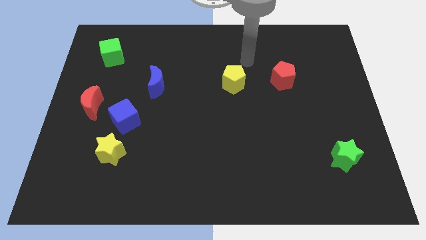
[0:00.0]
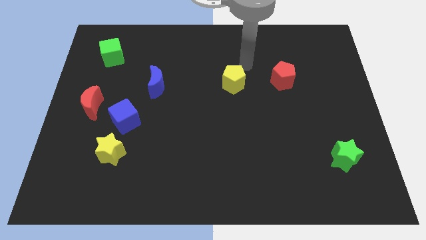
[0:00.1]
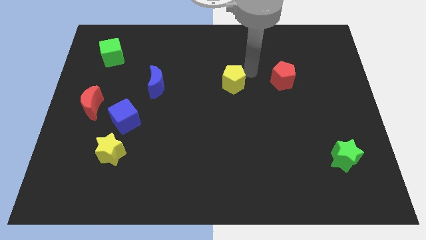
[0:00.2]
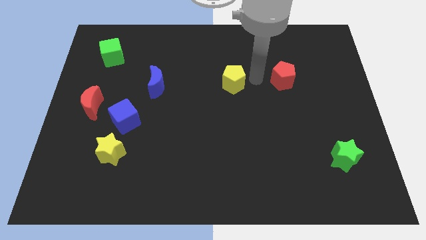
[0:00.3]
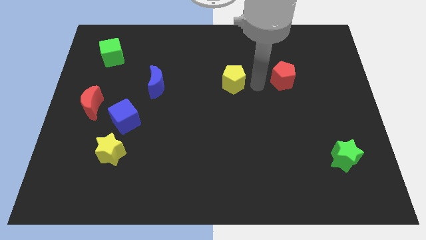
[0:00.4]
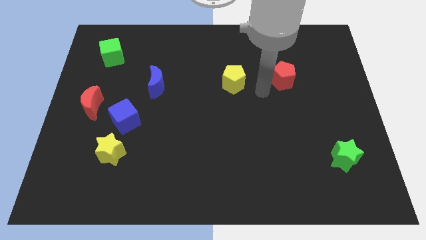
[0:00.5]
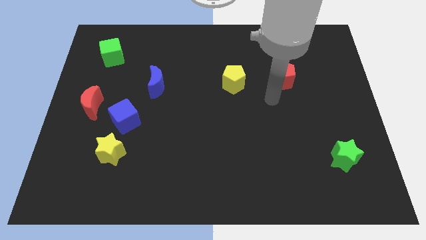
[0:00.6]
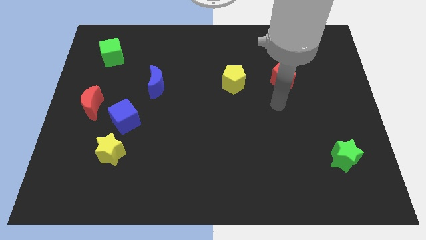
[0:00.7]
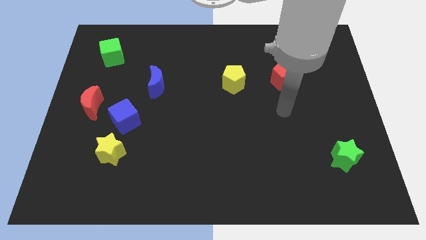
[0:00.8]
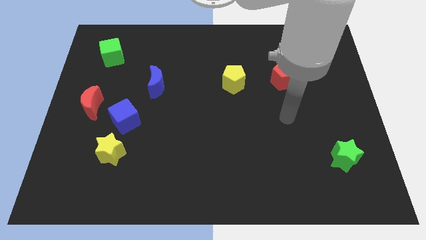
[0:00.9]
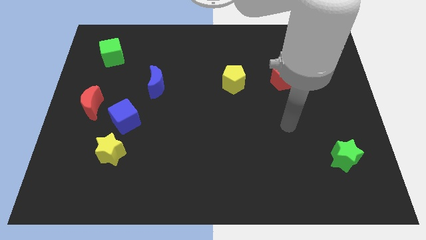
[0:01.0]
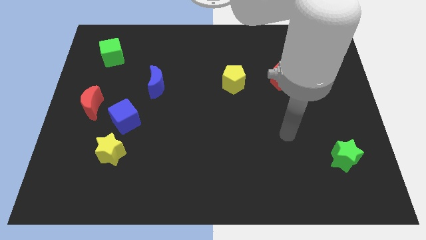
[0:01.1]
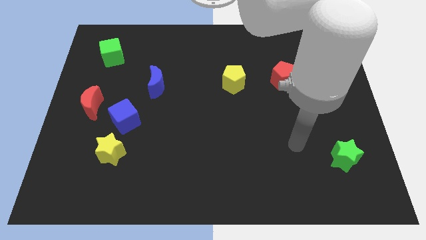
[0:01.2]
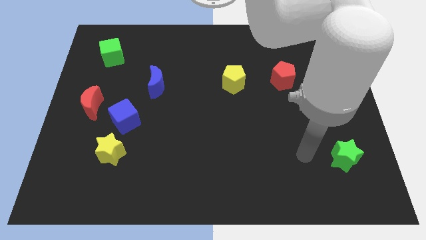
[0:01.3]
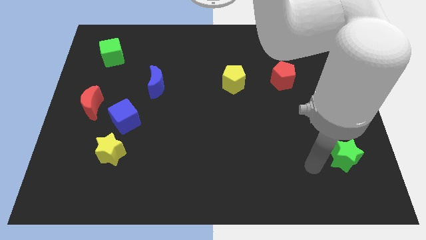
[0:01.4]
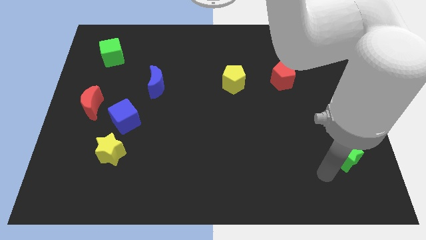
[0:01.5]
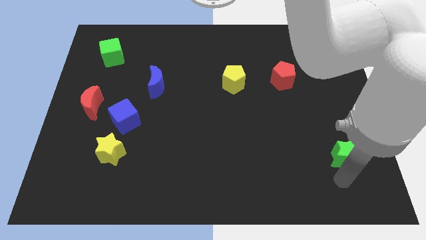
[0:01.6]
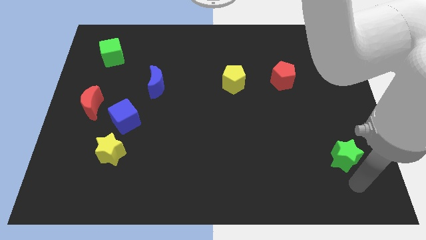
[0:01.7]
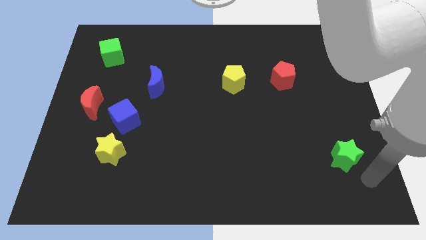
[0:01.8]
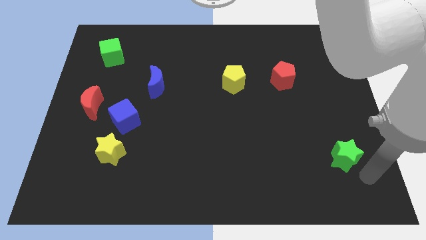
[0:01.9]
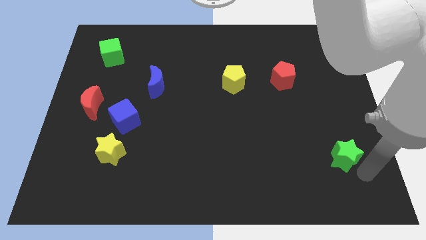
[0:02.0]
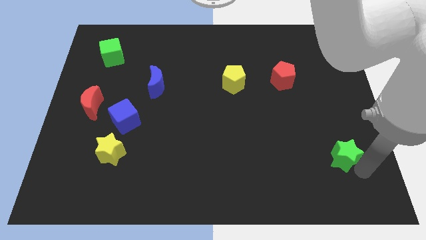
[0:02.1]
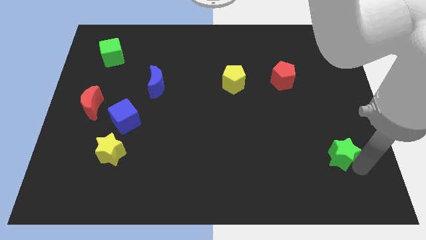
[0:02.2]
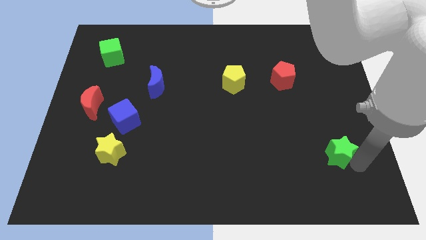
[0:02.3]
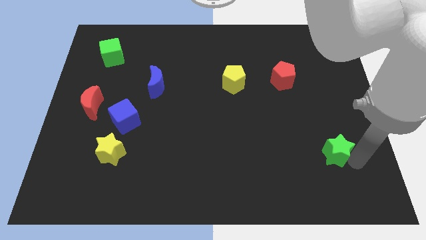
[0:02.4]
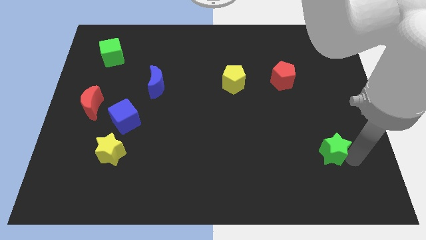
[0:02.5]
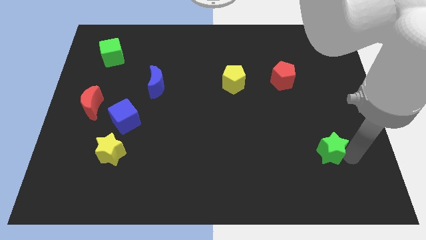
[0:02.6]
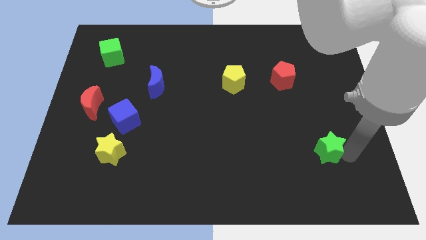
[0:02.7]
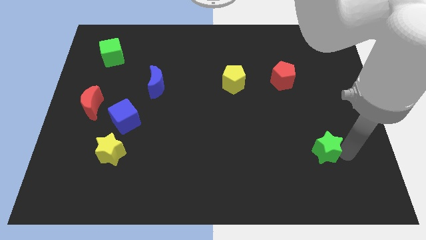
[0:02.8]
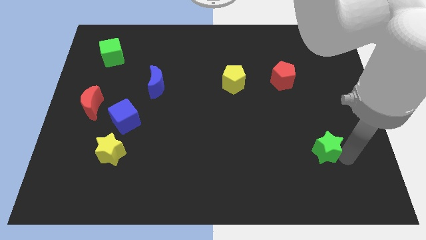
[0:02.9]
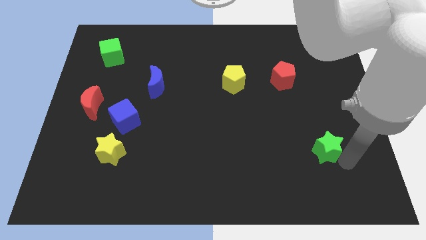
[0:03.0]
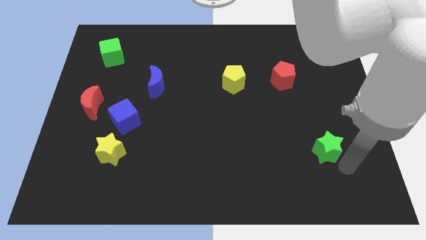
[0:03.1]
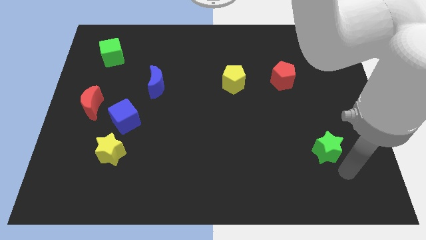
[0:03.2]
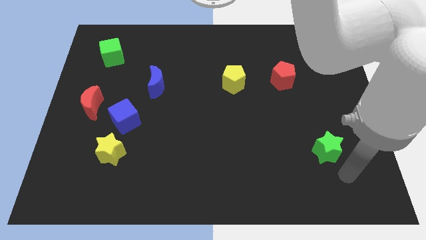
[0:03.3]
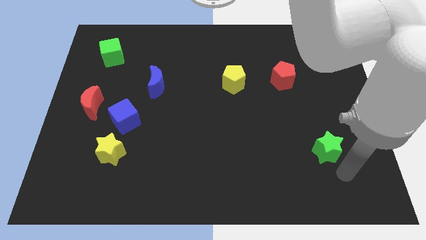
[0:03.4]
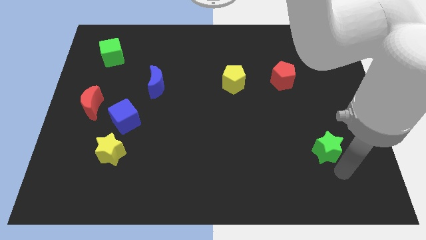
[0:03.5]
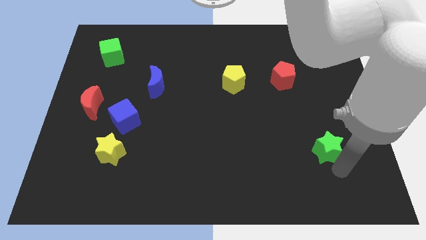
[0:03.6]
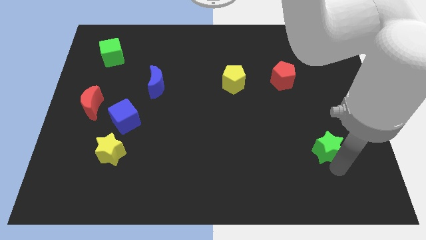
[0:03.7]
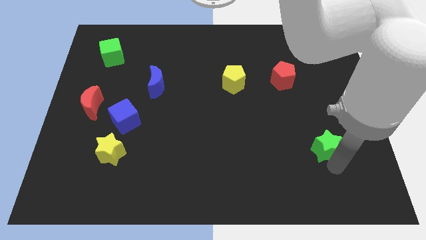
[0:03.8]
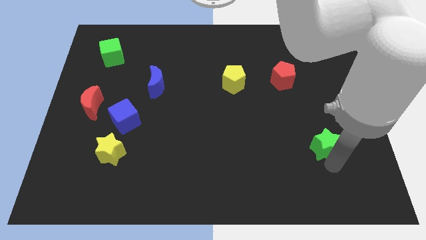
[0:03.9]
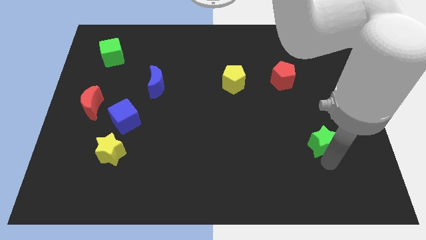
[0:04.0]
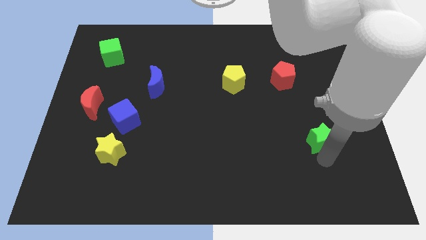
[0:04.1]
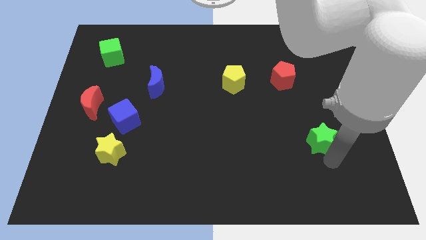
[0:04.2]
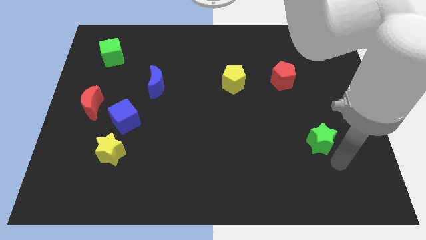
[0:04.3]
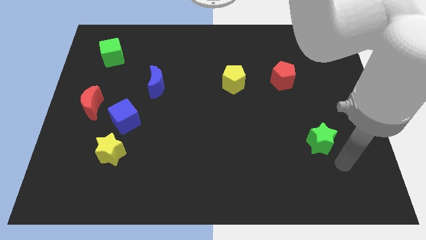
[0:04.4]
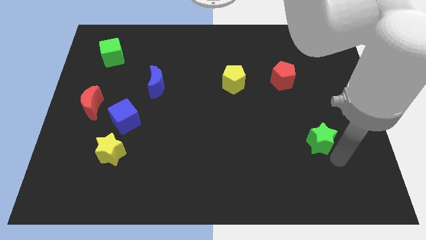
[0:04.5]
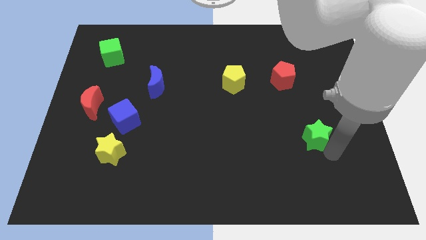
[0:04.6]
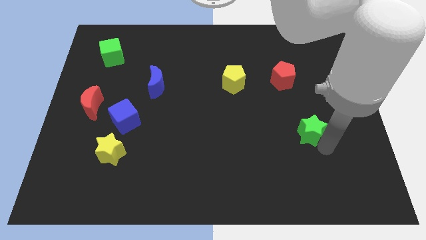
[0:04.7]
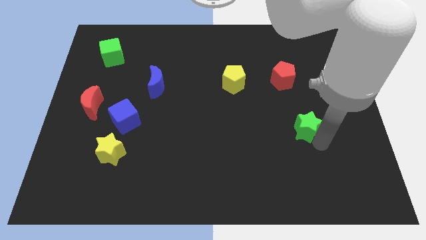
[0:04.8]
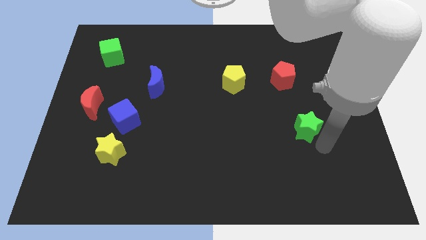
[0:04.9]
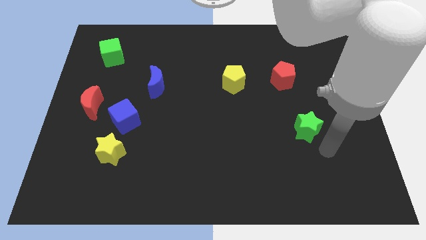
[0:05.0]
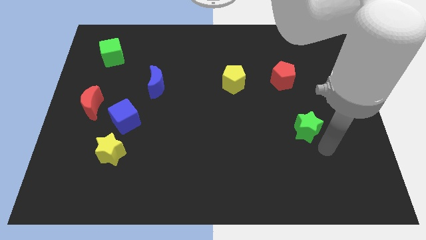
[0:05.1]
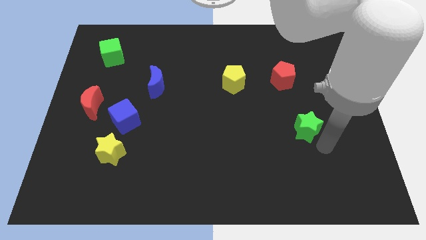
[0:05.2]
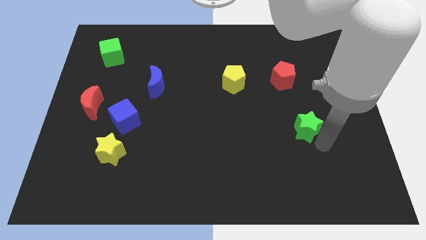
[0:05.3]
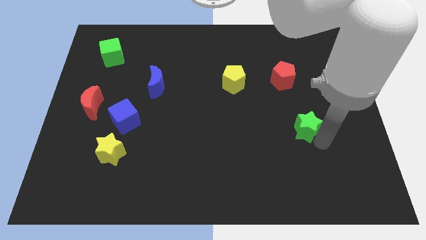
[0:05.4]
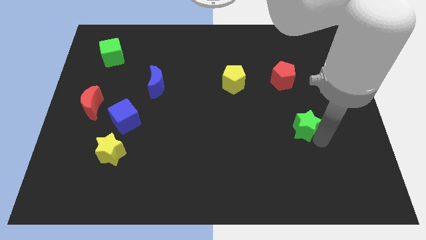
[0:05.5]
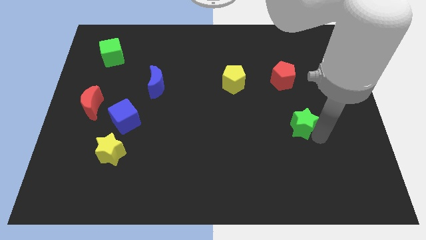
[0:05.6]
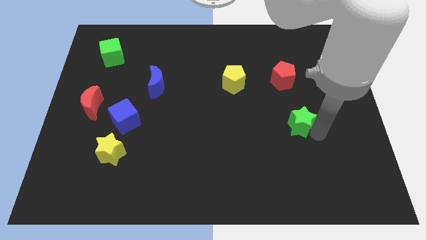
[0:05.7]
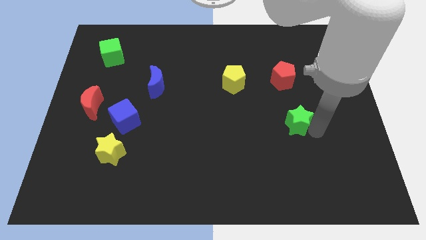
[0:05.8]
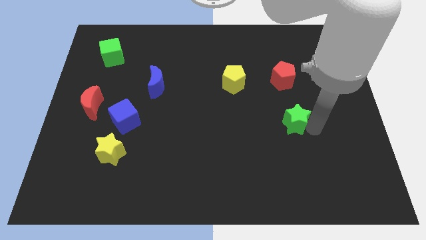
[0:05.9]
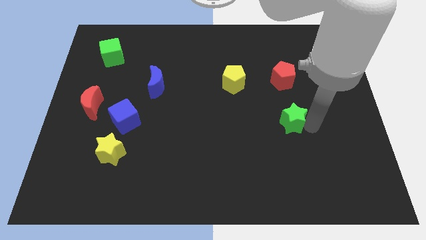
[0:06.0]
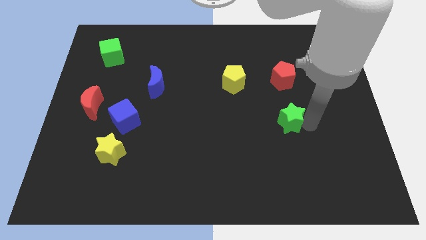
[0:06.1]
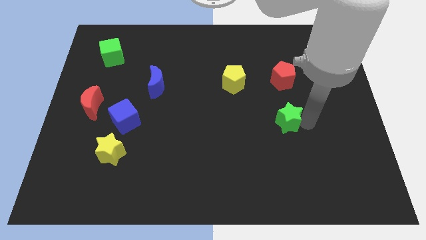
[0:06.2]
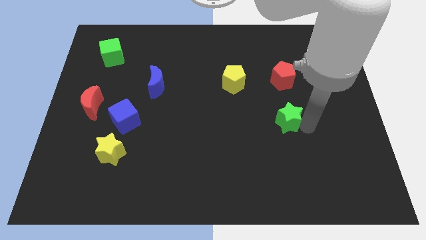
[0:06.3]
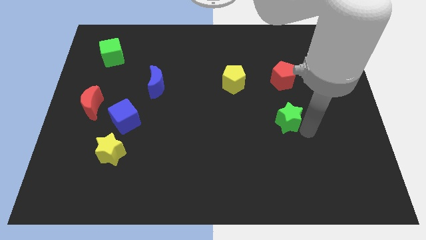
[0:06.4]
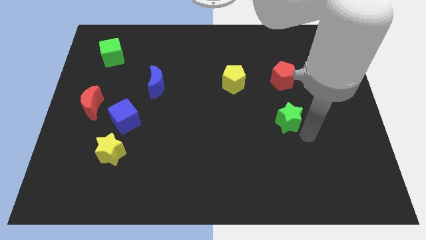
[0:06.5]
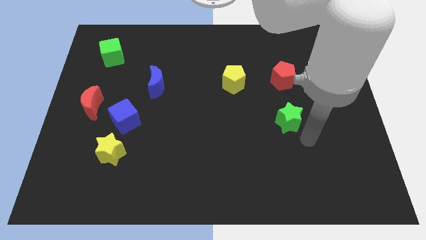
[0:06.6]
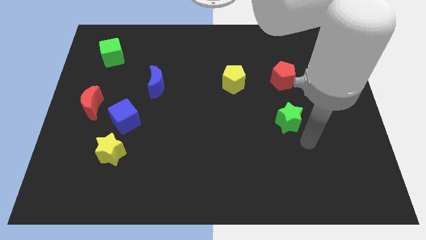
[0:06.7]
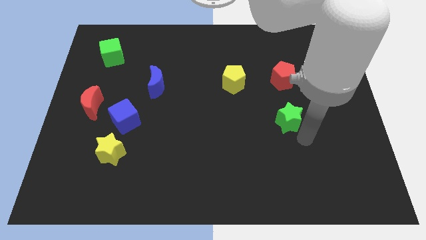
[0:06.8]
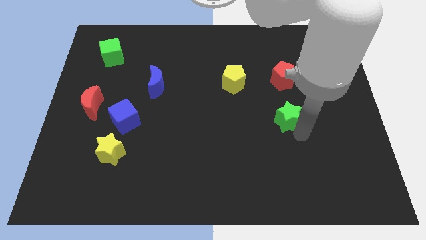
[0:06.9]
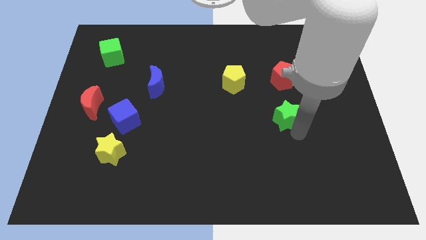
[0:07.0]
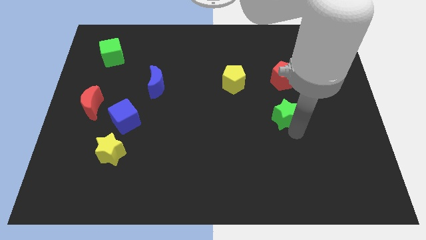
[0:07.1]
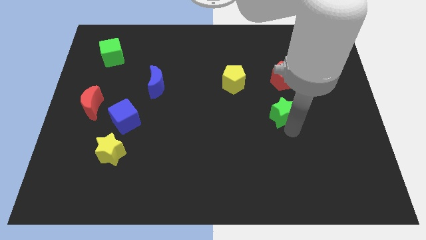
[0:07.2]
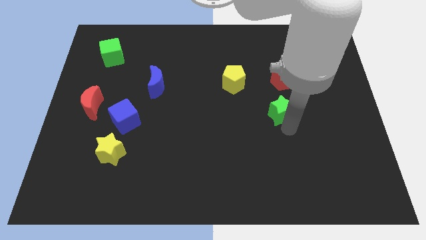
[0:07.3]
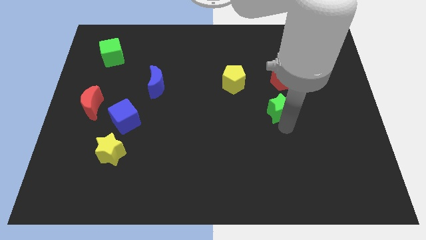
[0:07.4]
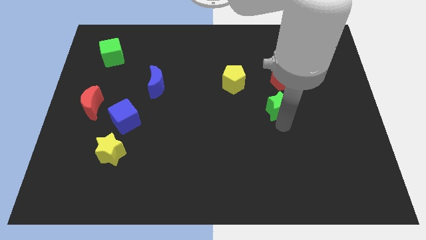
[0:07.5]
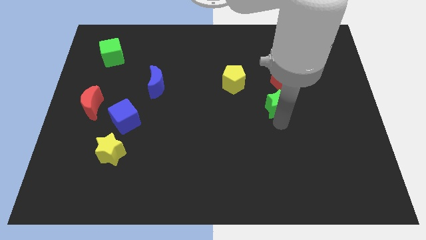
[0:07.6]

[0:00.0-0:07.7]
put the green star diagonally down and to the left of the red pentagon
